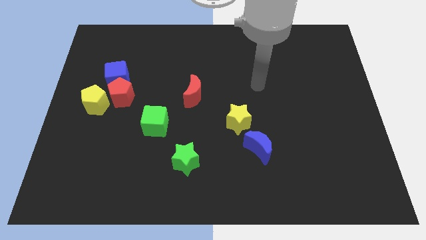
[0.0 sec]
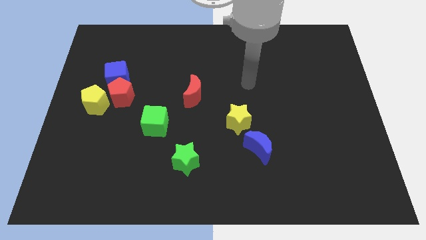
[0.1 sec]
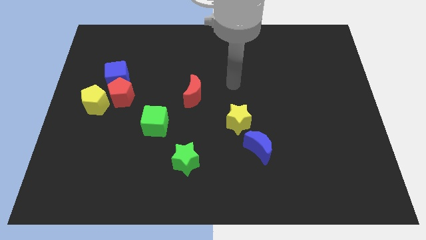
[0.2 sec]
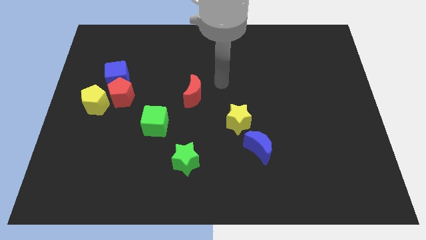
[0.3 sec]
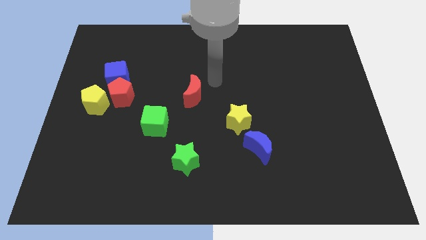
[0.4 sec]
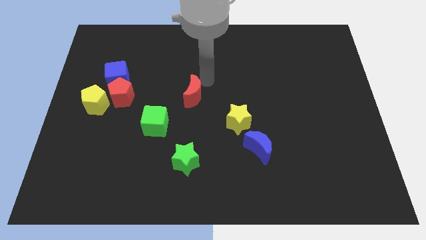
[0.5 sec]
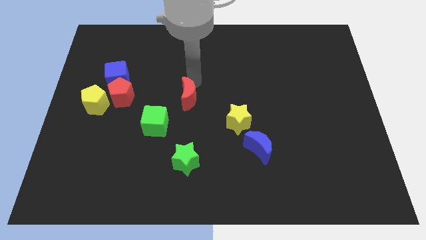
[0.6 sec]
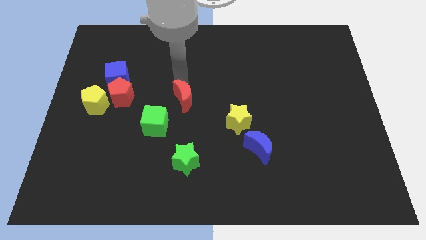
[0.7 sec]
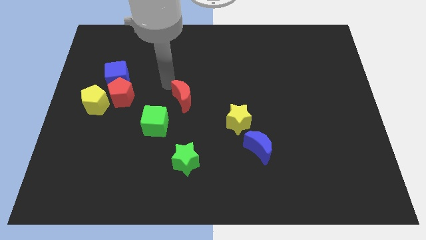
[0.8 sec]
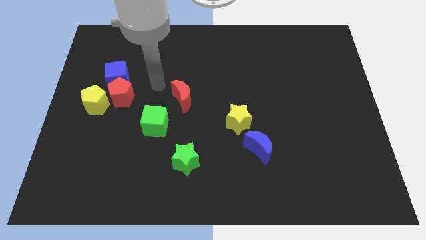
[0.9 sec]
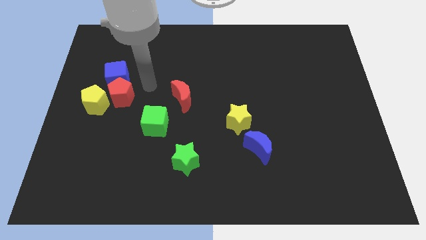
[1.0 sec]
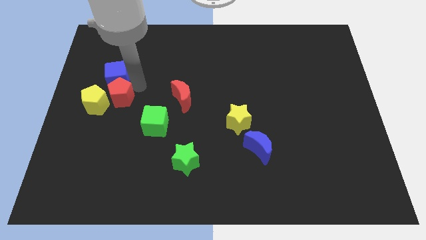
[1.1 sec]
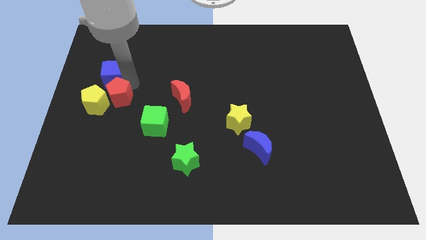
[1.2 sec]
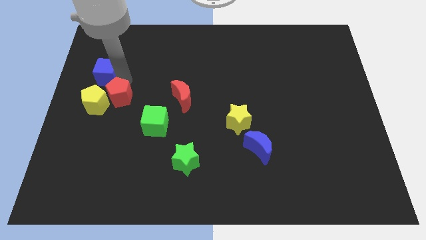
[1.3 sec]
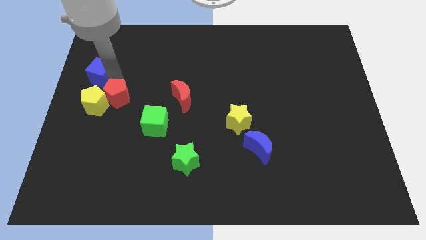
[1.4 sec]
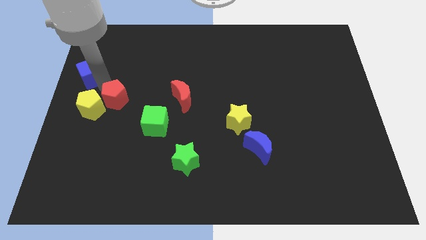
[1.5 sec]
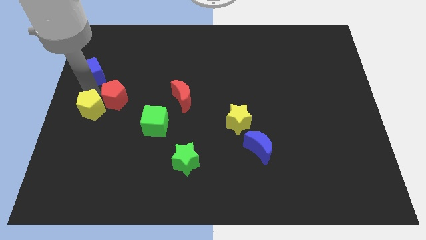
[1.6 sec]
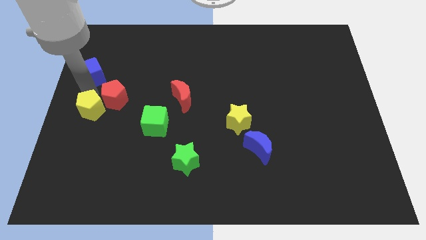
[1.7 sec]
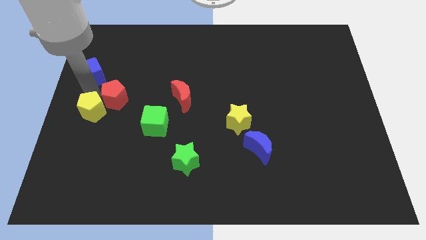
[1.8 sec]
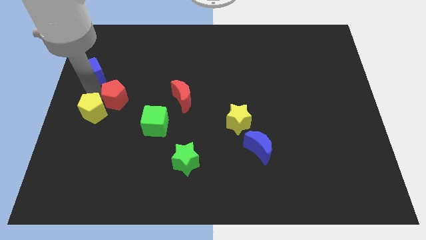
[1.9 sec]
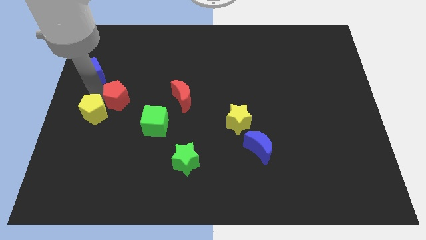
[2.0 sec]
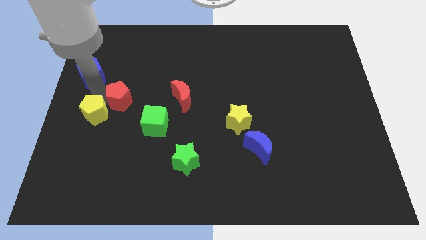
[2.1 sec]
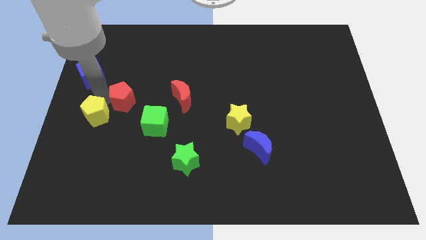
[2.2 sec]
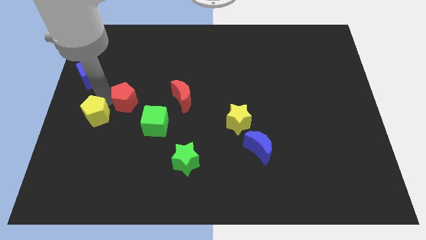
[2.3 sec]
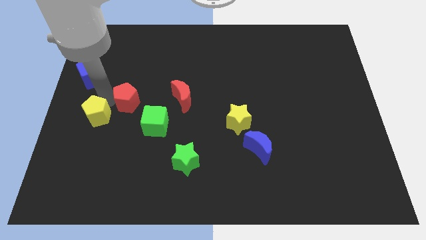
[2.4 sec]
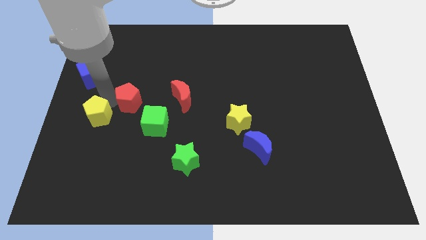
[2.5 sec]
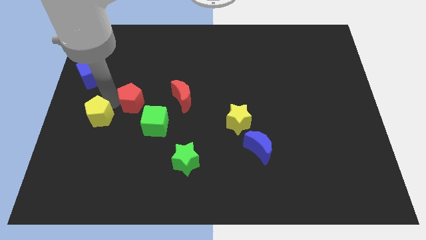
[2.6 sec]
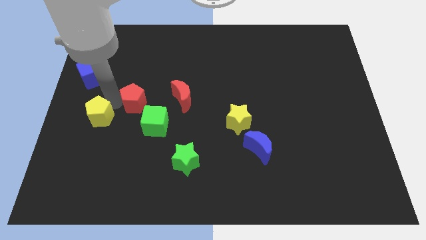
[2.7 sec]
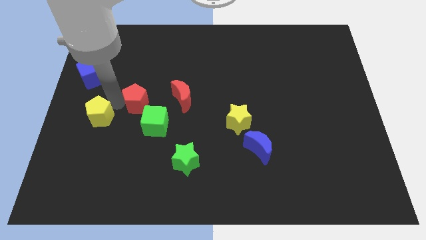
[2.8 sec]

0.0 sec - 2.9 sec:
move the red pentagon away from the blue cube and yellow pentagon

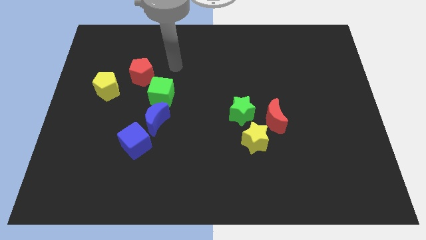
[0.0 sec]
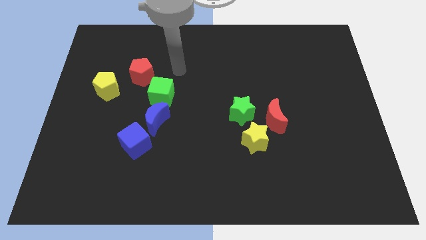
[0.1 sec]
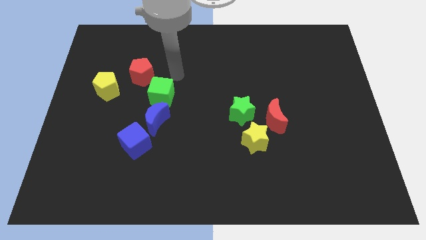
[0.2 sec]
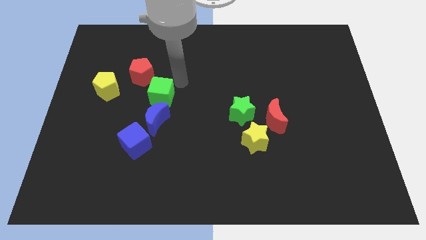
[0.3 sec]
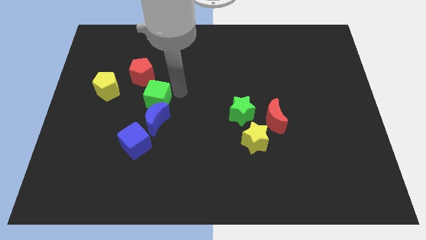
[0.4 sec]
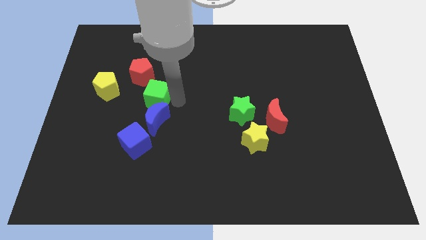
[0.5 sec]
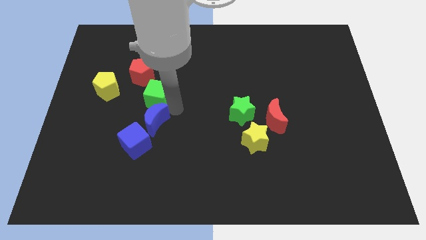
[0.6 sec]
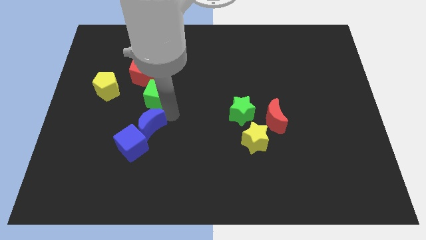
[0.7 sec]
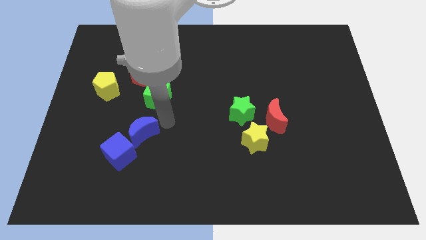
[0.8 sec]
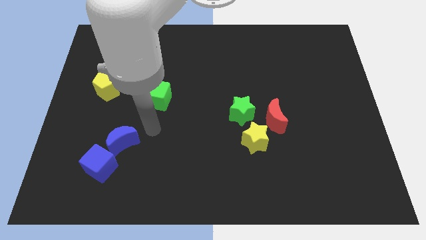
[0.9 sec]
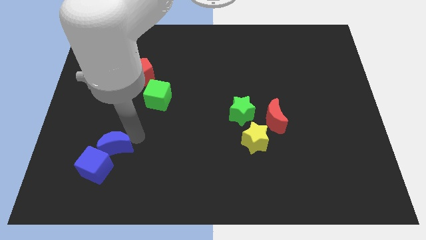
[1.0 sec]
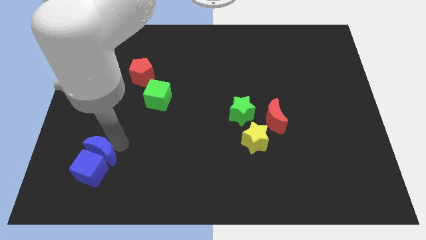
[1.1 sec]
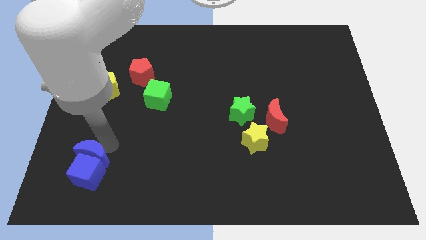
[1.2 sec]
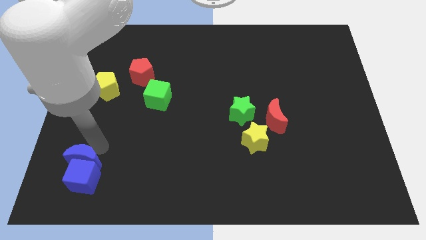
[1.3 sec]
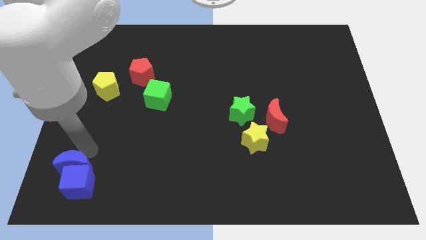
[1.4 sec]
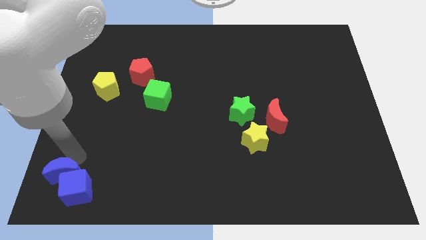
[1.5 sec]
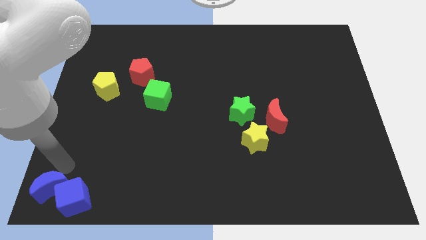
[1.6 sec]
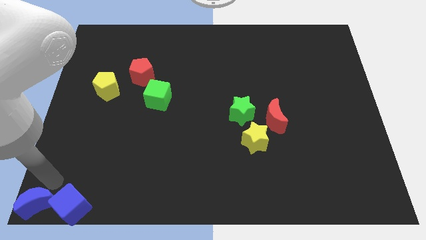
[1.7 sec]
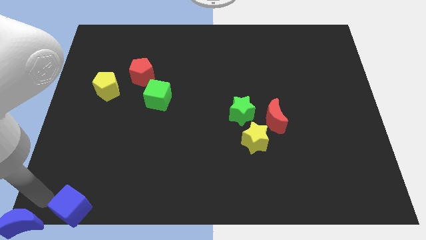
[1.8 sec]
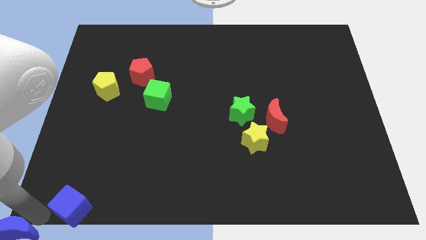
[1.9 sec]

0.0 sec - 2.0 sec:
move the blue cube away from the blue moon

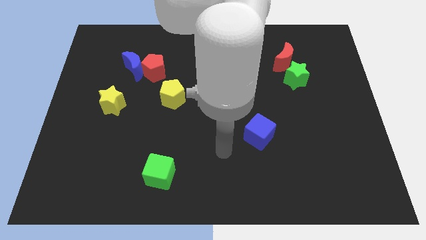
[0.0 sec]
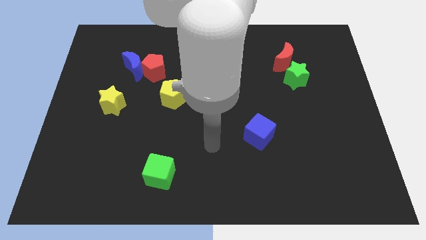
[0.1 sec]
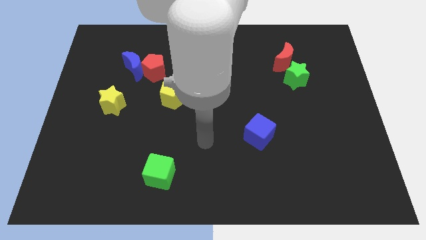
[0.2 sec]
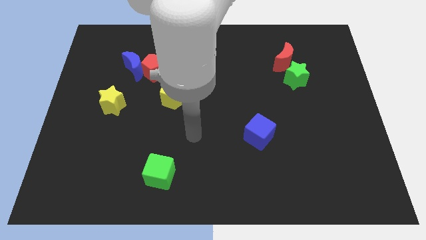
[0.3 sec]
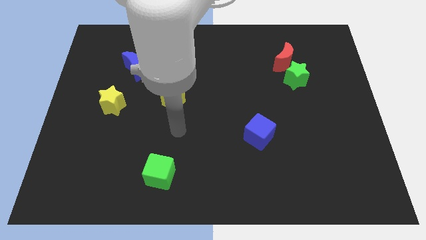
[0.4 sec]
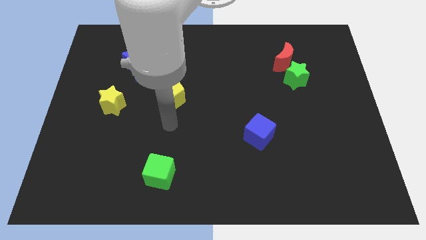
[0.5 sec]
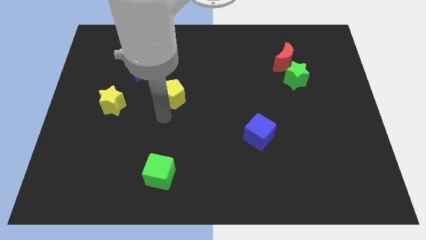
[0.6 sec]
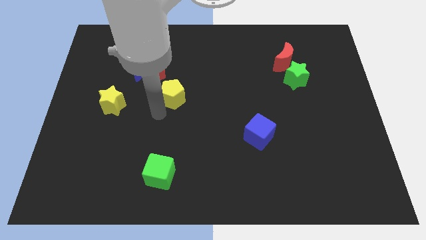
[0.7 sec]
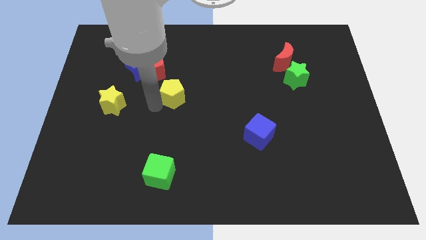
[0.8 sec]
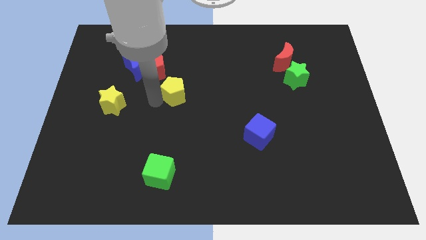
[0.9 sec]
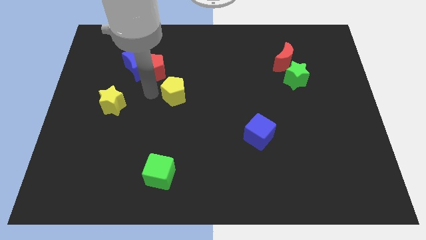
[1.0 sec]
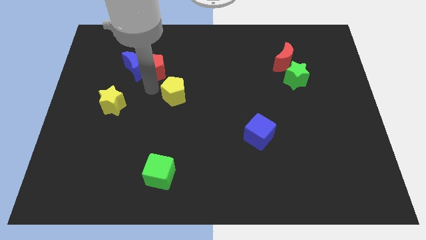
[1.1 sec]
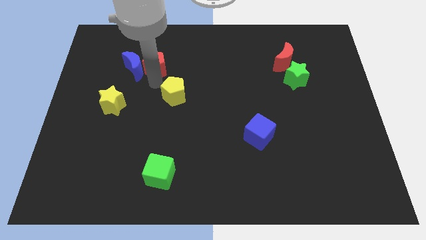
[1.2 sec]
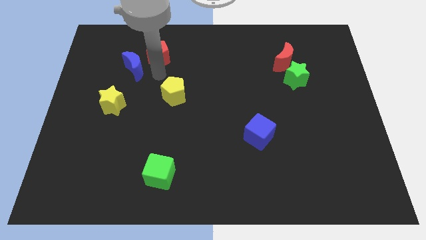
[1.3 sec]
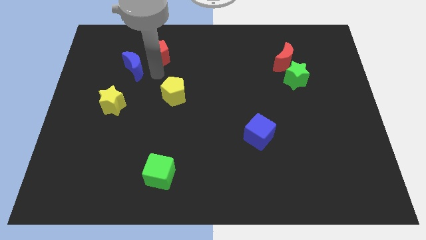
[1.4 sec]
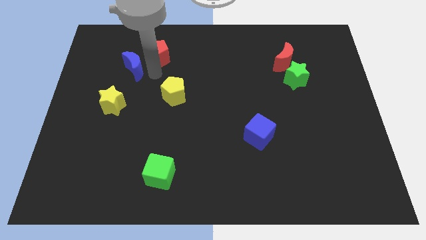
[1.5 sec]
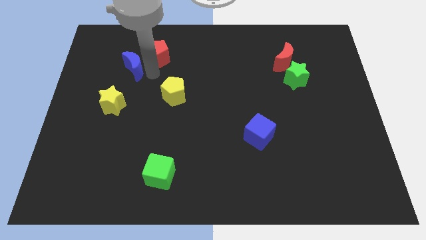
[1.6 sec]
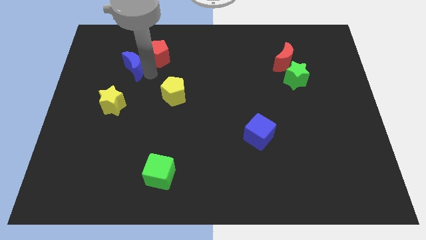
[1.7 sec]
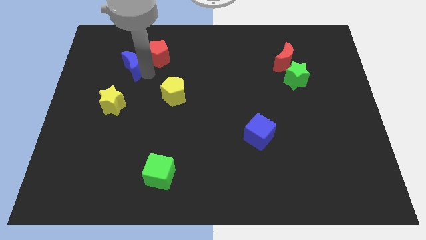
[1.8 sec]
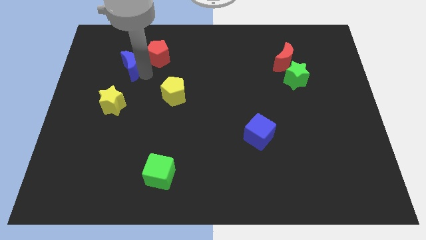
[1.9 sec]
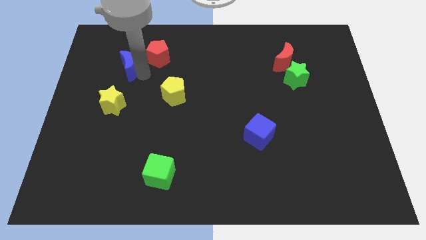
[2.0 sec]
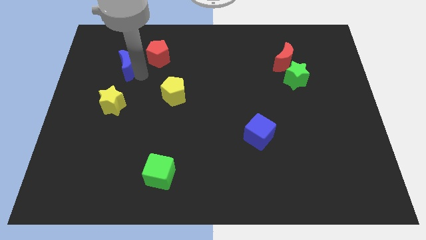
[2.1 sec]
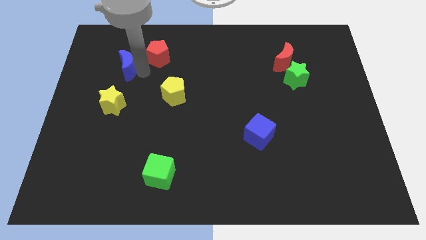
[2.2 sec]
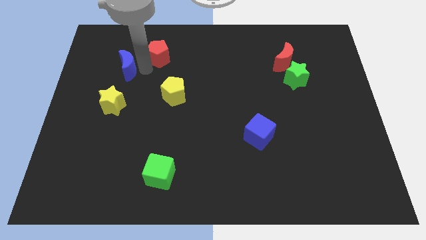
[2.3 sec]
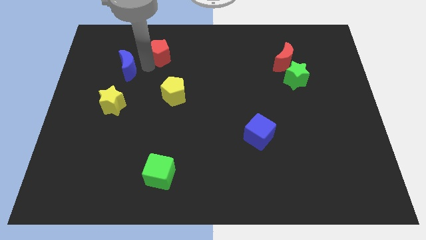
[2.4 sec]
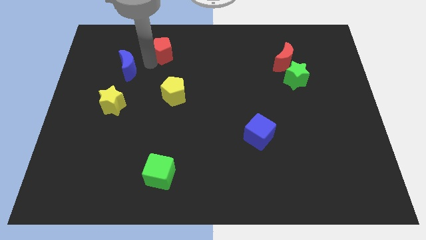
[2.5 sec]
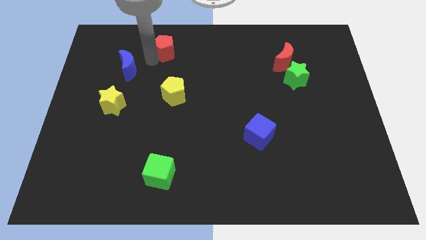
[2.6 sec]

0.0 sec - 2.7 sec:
pull the blue moon apart from the red pentagon

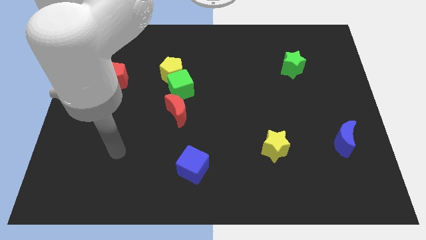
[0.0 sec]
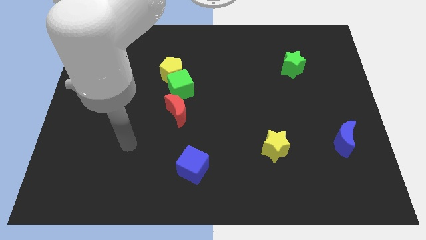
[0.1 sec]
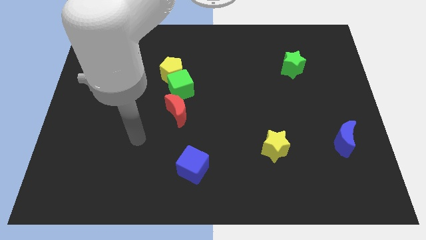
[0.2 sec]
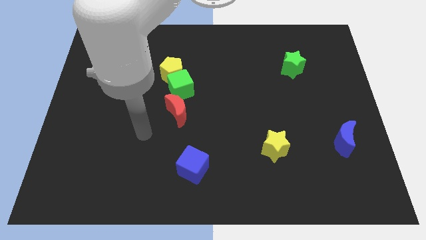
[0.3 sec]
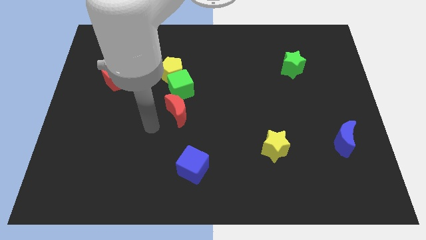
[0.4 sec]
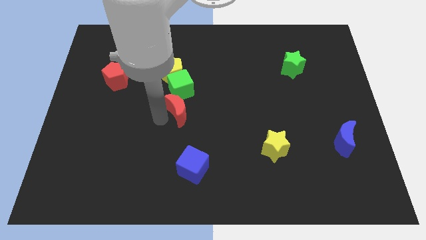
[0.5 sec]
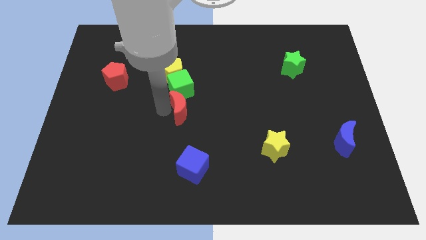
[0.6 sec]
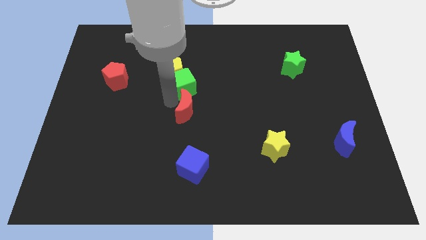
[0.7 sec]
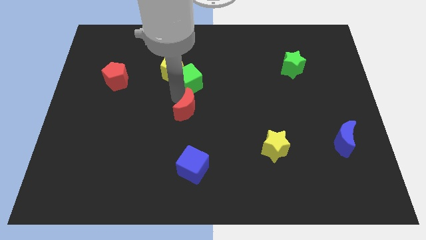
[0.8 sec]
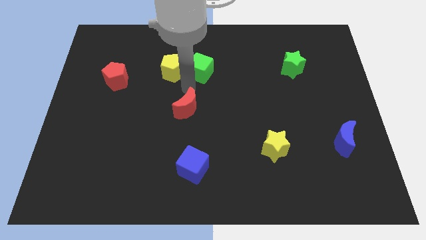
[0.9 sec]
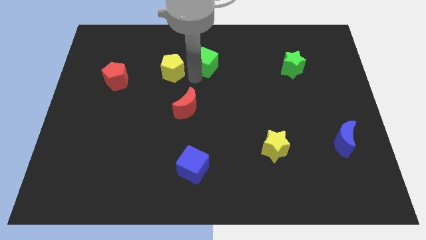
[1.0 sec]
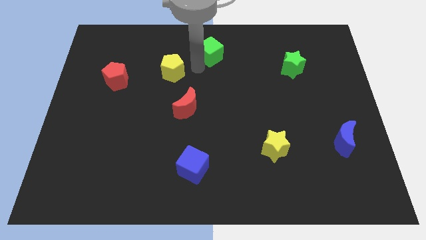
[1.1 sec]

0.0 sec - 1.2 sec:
pull the yellow pentagon apart from the green cube

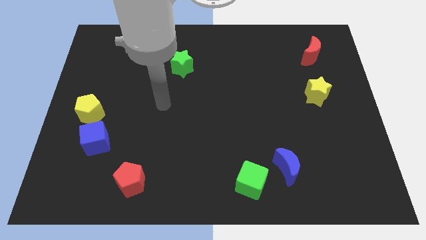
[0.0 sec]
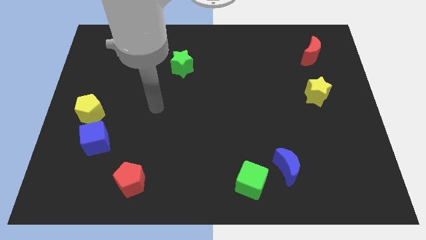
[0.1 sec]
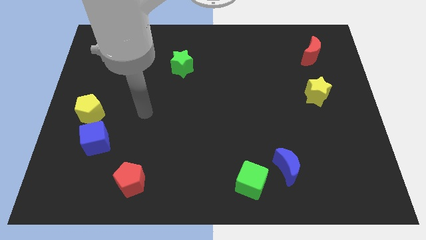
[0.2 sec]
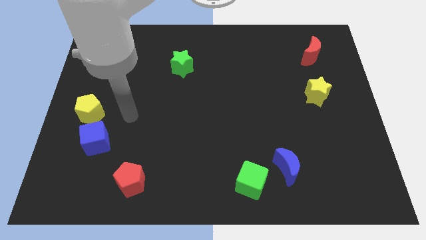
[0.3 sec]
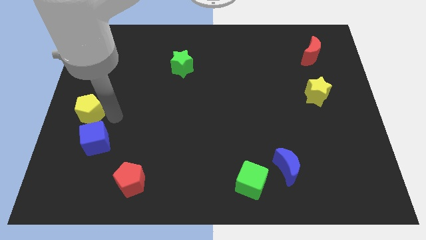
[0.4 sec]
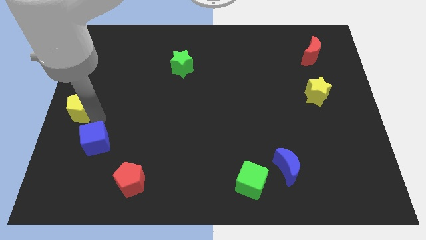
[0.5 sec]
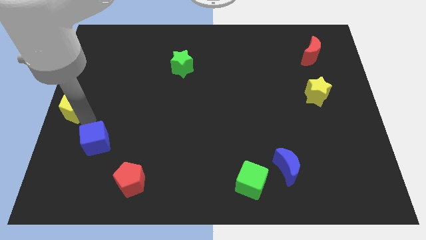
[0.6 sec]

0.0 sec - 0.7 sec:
separate the blue cube from the yellow pentagon

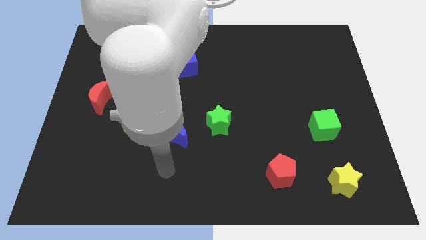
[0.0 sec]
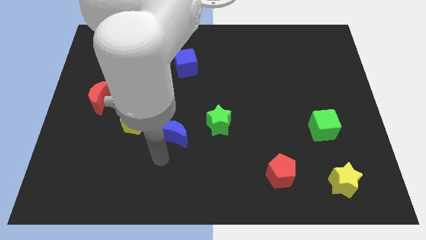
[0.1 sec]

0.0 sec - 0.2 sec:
move the blue moon away from the yellow pentagon
